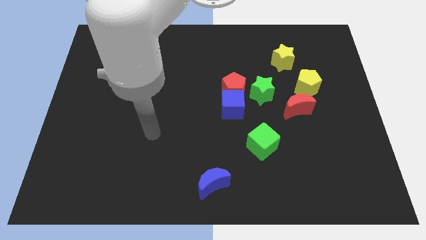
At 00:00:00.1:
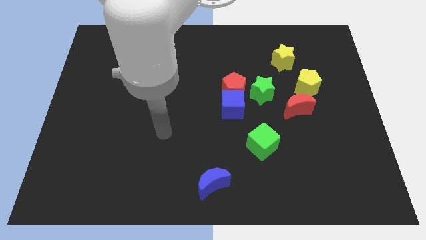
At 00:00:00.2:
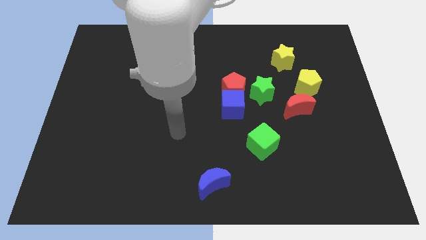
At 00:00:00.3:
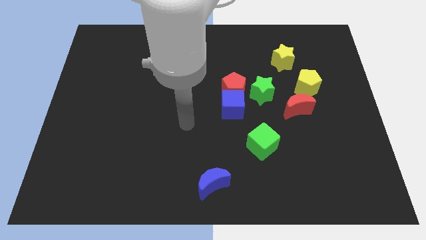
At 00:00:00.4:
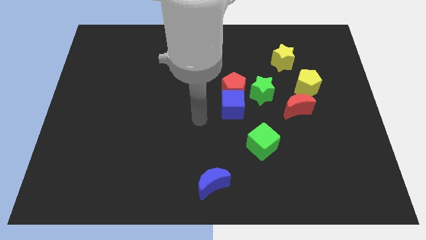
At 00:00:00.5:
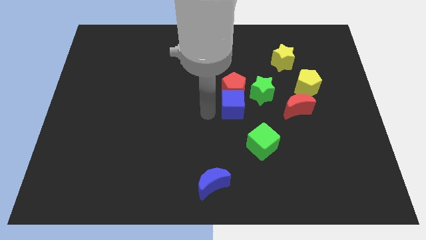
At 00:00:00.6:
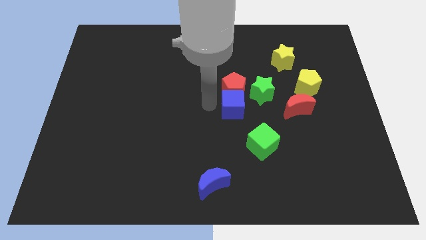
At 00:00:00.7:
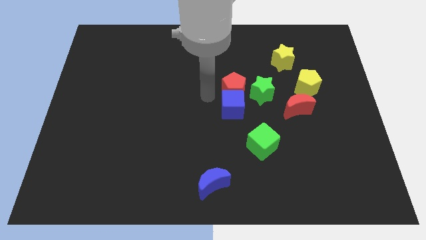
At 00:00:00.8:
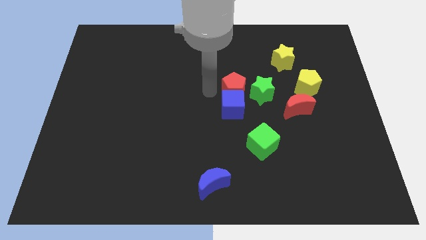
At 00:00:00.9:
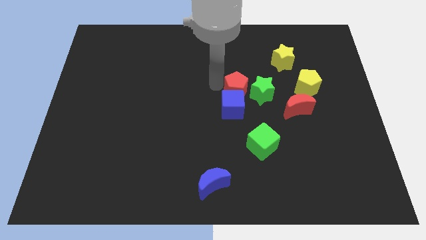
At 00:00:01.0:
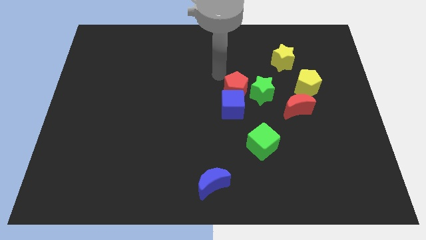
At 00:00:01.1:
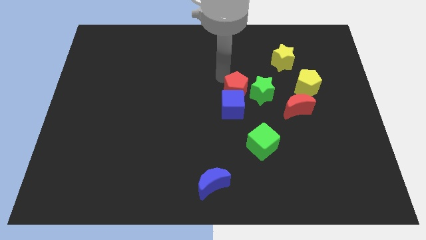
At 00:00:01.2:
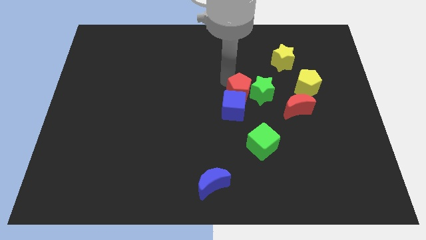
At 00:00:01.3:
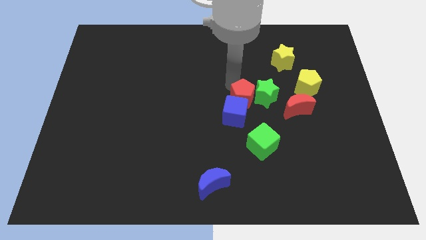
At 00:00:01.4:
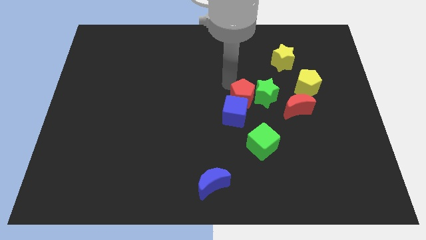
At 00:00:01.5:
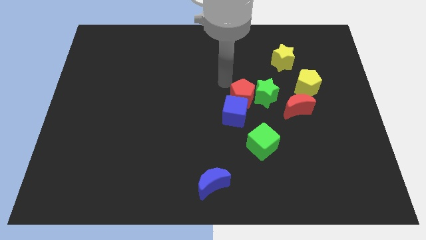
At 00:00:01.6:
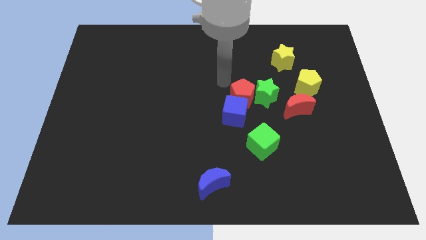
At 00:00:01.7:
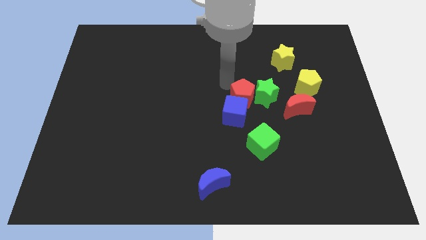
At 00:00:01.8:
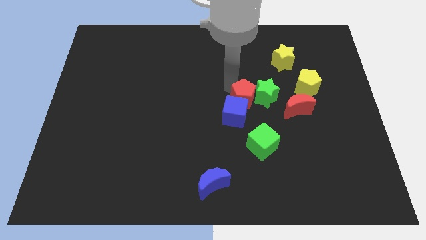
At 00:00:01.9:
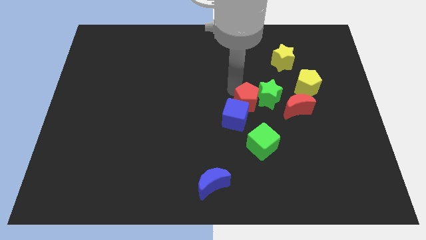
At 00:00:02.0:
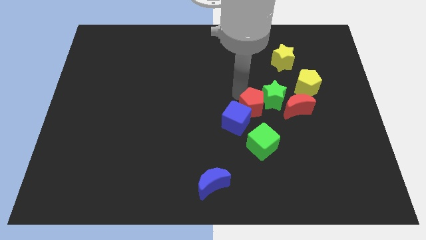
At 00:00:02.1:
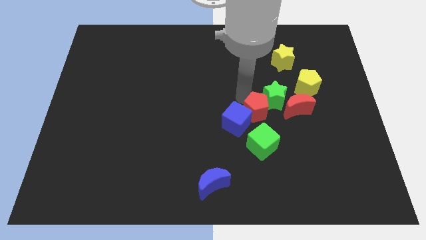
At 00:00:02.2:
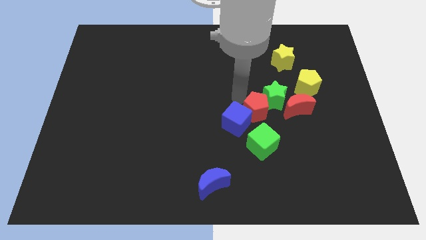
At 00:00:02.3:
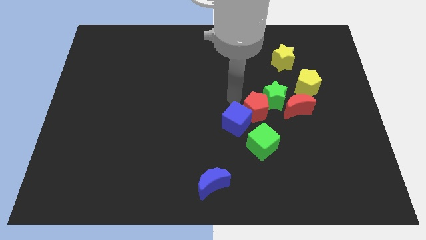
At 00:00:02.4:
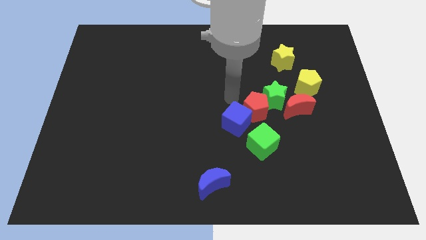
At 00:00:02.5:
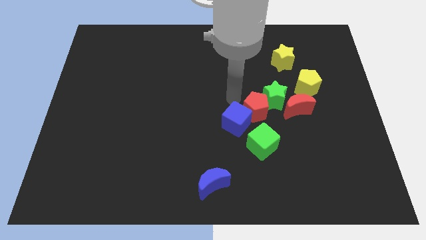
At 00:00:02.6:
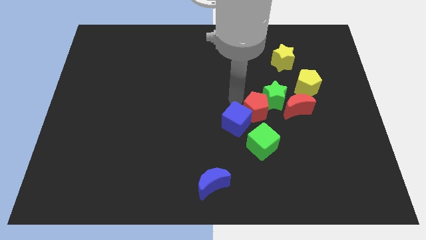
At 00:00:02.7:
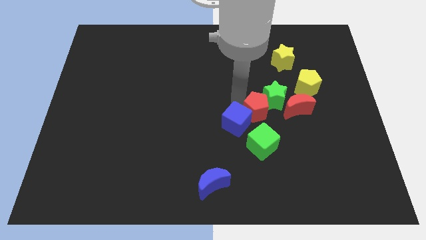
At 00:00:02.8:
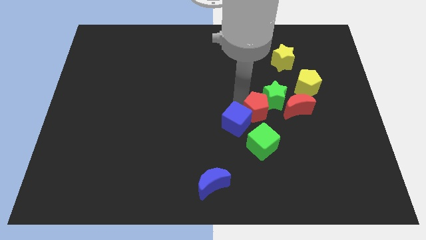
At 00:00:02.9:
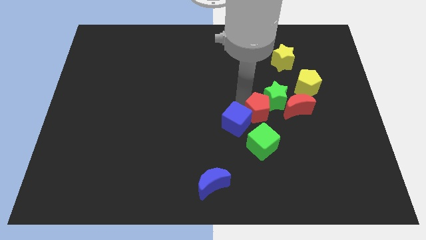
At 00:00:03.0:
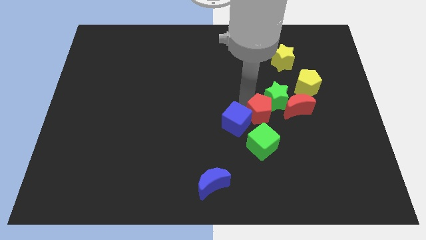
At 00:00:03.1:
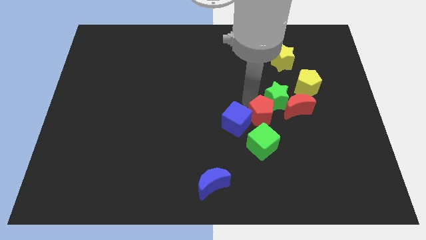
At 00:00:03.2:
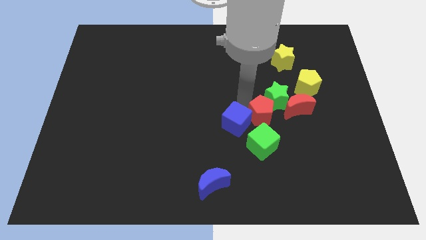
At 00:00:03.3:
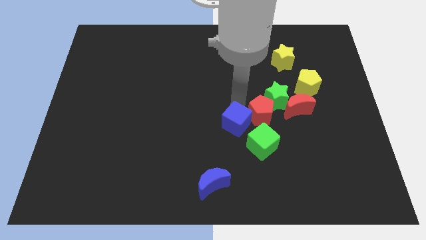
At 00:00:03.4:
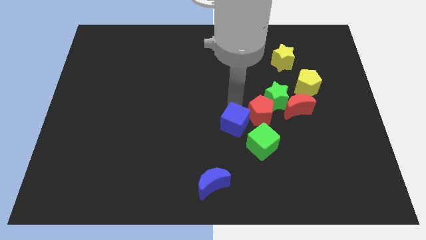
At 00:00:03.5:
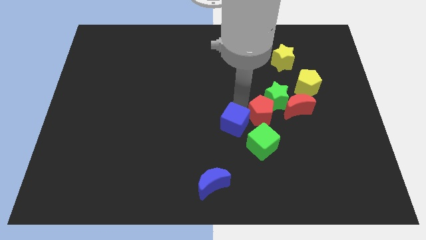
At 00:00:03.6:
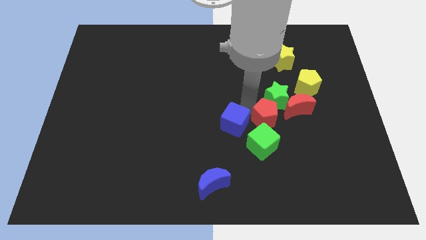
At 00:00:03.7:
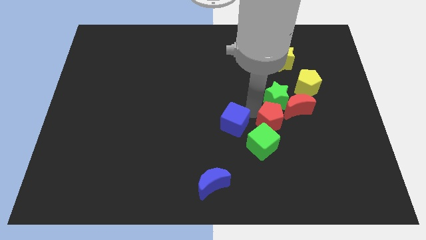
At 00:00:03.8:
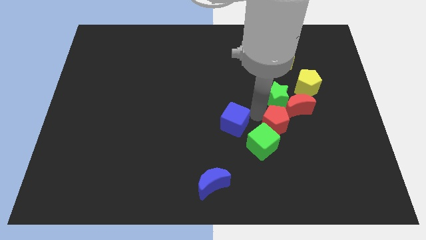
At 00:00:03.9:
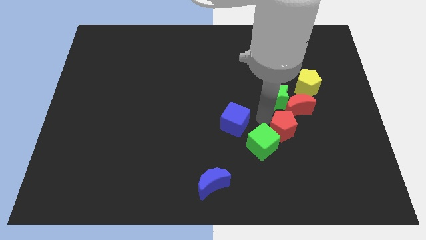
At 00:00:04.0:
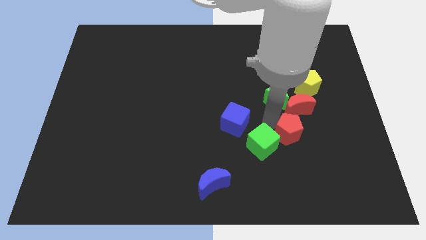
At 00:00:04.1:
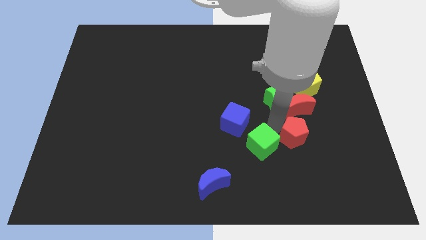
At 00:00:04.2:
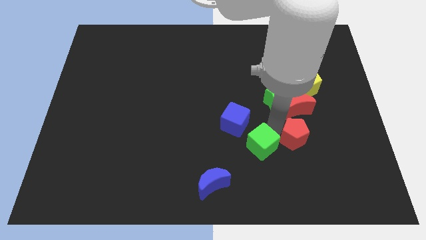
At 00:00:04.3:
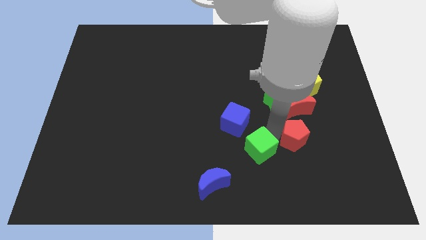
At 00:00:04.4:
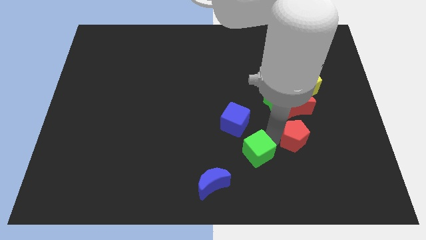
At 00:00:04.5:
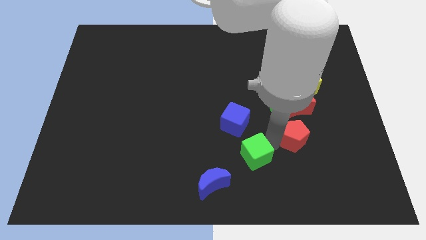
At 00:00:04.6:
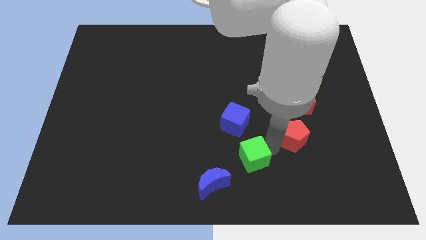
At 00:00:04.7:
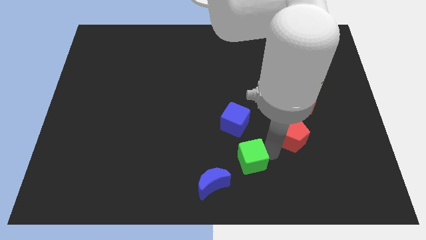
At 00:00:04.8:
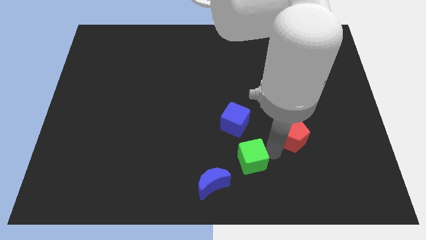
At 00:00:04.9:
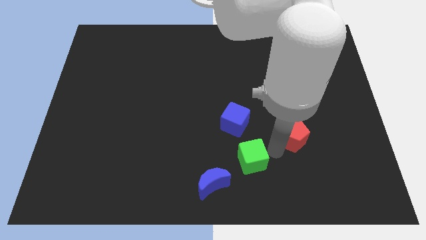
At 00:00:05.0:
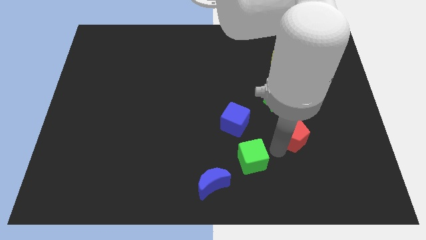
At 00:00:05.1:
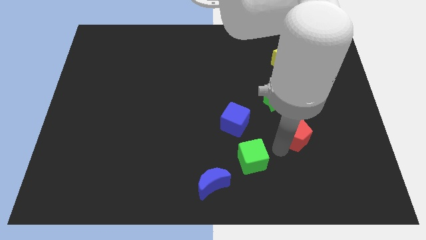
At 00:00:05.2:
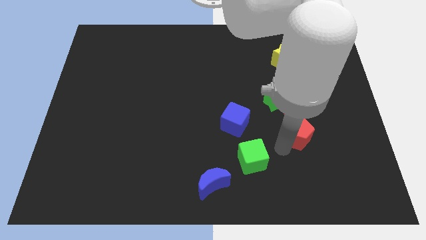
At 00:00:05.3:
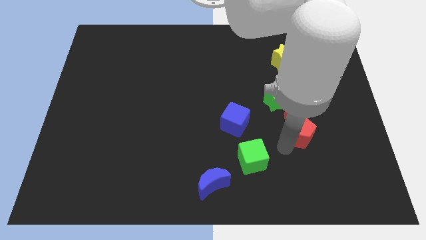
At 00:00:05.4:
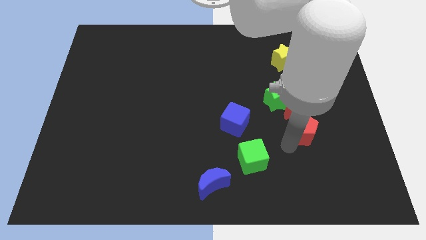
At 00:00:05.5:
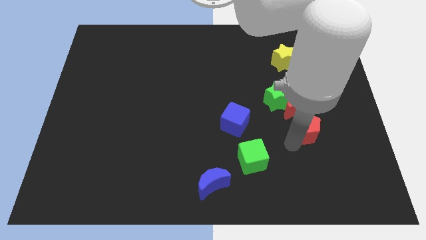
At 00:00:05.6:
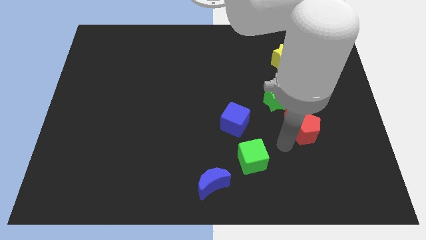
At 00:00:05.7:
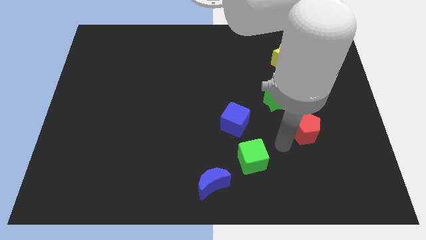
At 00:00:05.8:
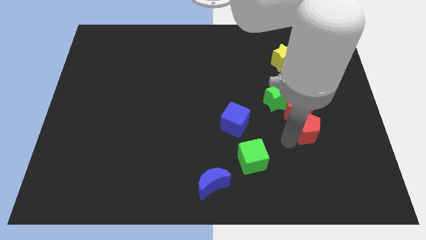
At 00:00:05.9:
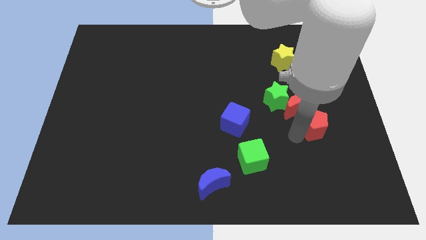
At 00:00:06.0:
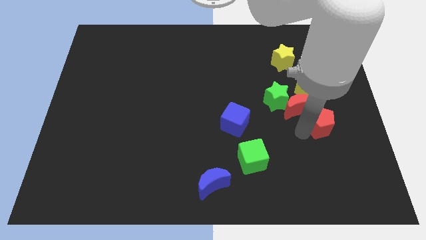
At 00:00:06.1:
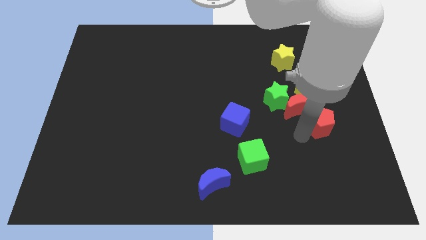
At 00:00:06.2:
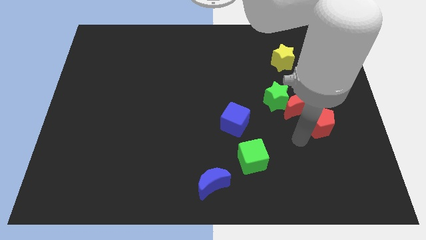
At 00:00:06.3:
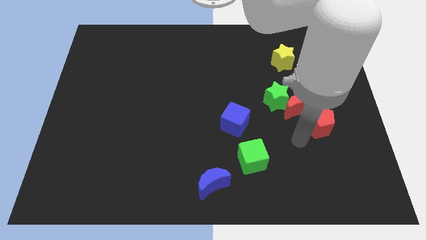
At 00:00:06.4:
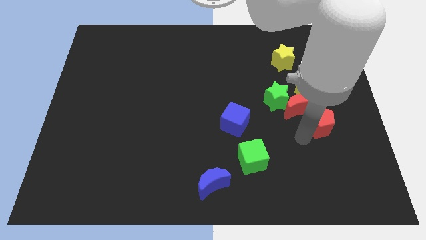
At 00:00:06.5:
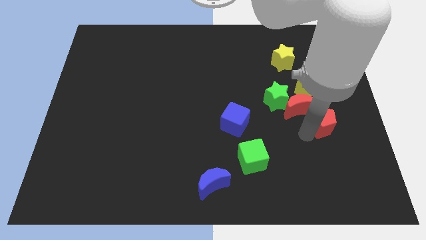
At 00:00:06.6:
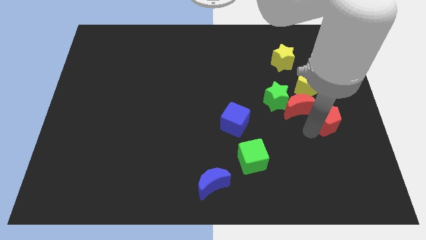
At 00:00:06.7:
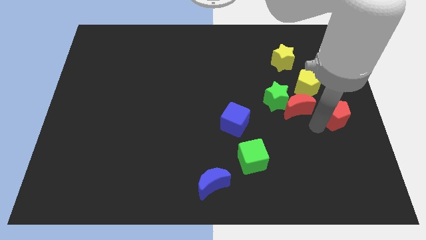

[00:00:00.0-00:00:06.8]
push the red pentagon to the right side
